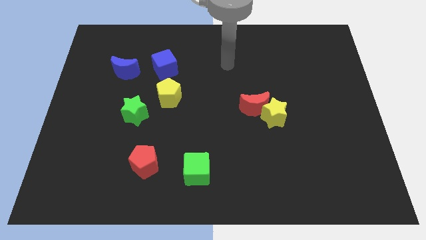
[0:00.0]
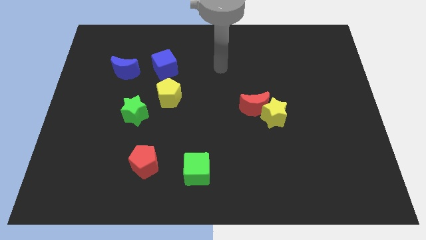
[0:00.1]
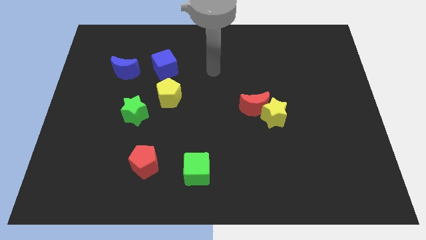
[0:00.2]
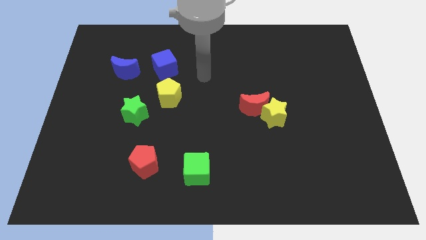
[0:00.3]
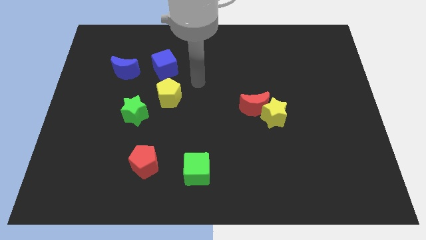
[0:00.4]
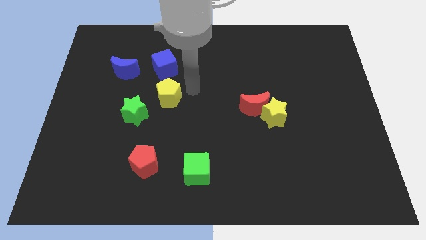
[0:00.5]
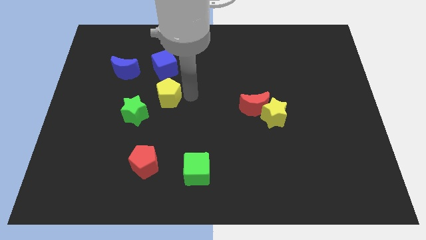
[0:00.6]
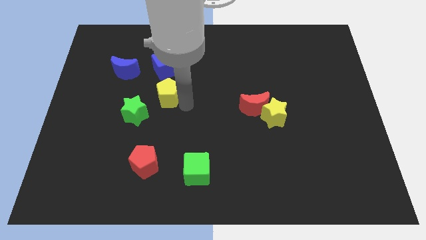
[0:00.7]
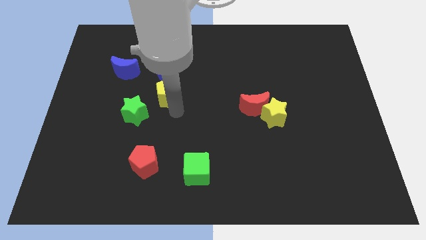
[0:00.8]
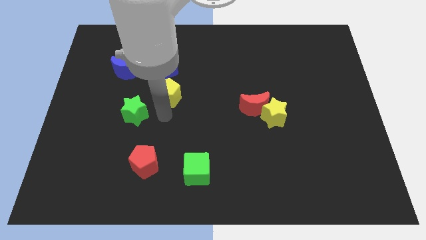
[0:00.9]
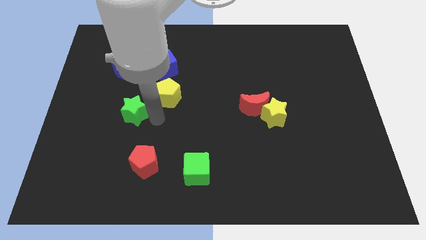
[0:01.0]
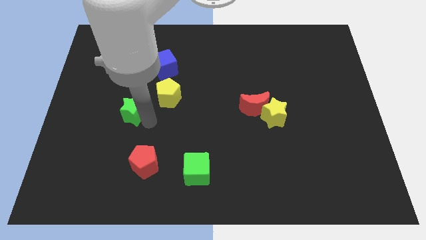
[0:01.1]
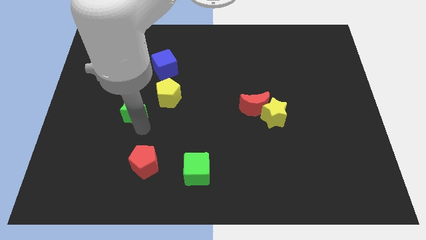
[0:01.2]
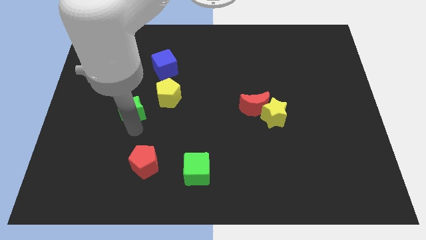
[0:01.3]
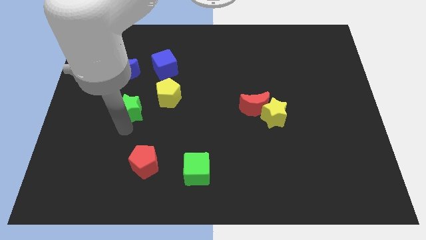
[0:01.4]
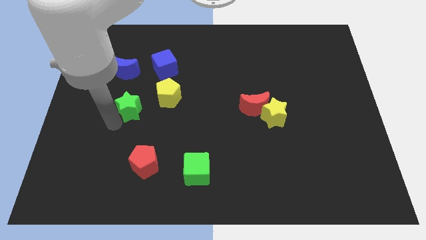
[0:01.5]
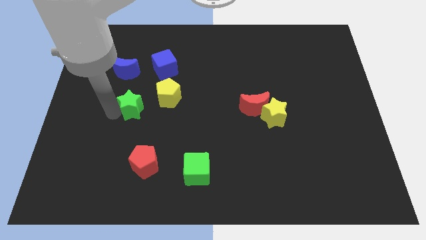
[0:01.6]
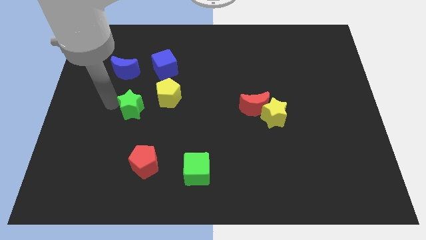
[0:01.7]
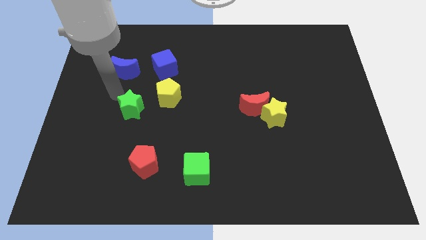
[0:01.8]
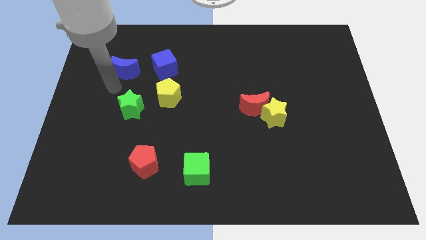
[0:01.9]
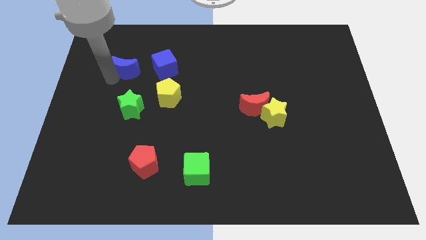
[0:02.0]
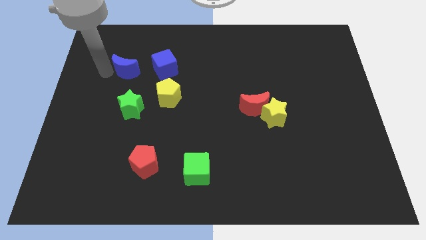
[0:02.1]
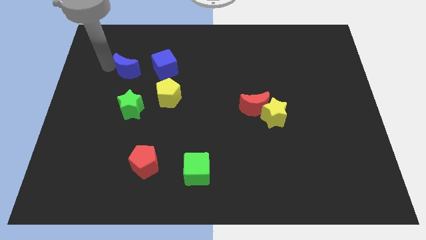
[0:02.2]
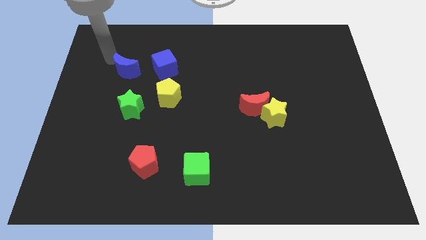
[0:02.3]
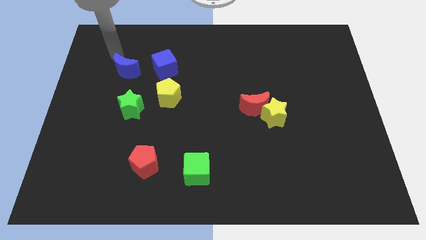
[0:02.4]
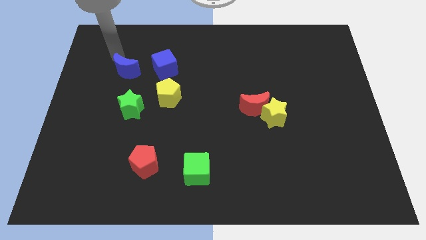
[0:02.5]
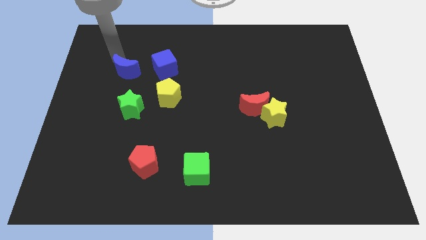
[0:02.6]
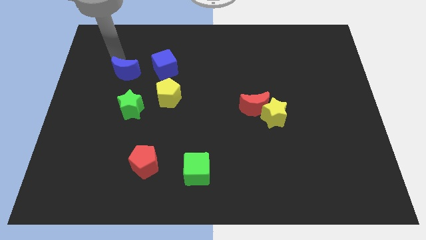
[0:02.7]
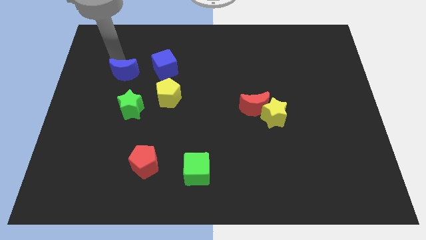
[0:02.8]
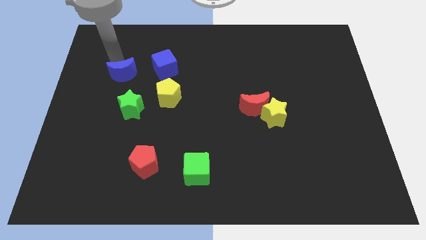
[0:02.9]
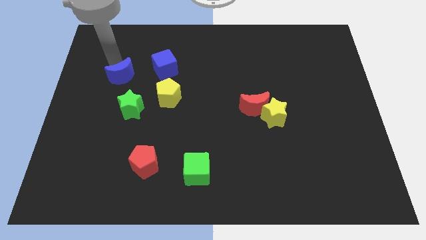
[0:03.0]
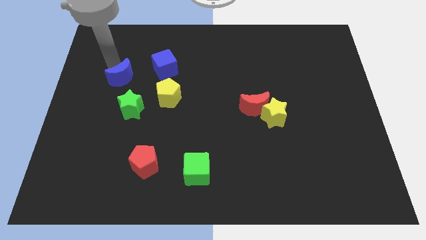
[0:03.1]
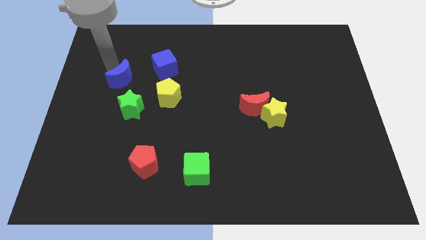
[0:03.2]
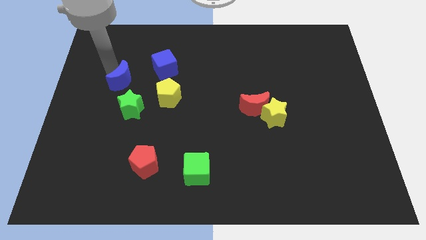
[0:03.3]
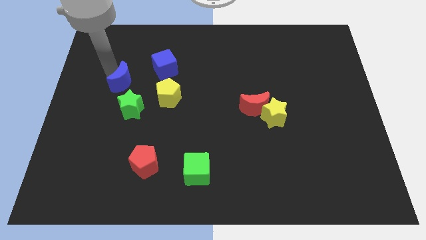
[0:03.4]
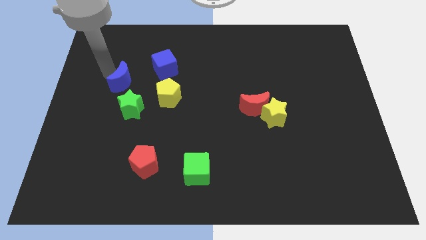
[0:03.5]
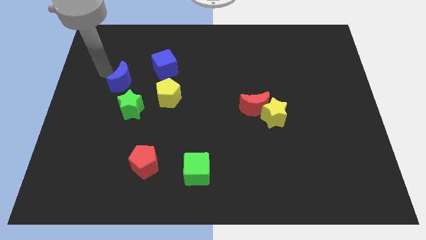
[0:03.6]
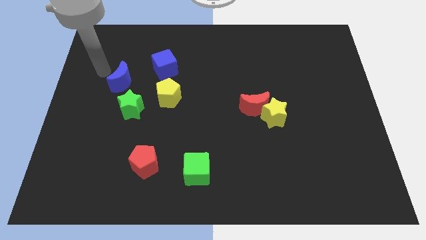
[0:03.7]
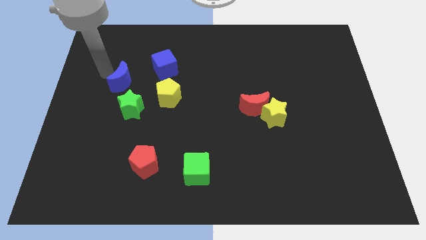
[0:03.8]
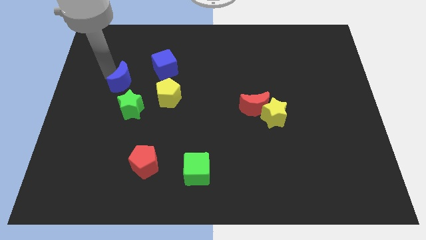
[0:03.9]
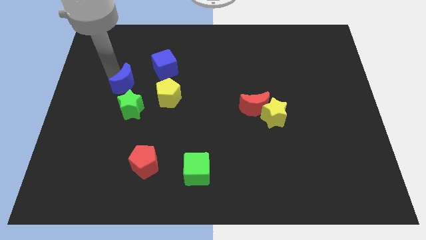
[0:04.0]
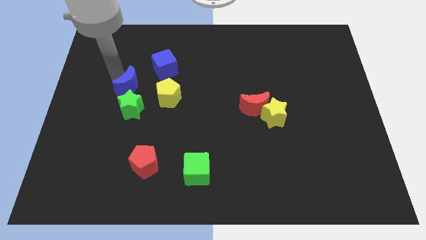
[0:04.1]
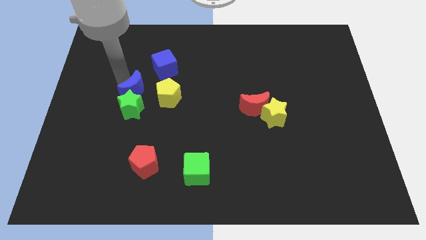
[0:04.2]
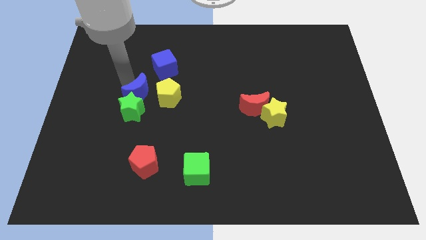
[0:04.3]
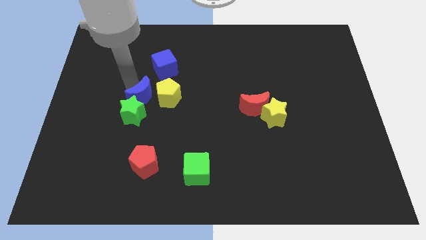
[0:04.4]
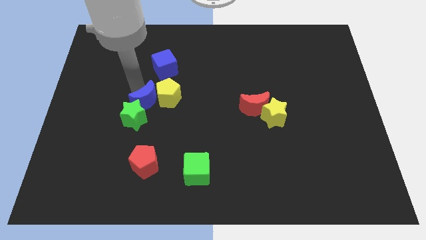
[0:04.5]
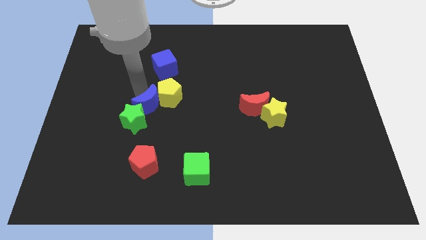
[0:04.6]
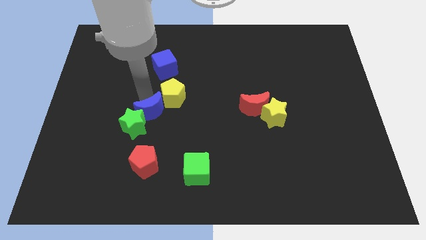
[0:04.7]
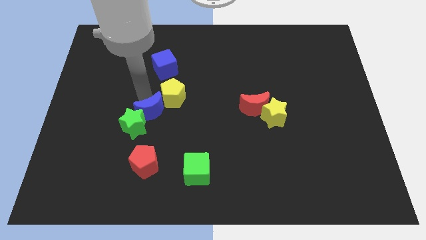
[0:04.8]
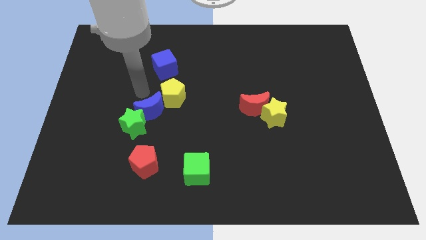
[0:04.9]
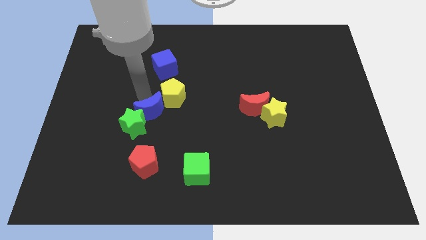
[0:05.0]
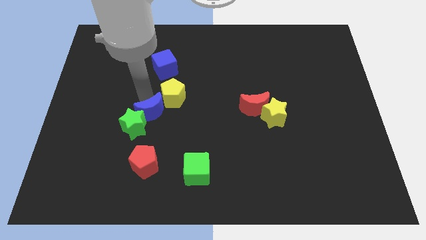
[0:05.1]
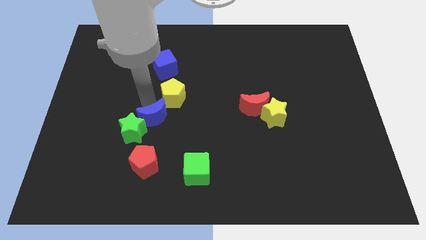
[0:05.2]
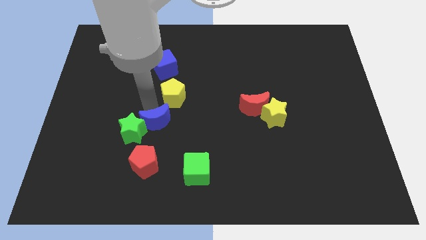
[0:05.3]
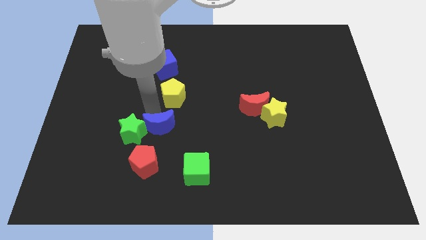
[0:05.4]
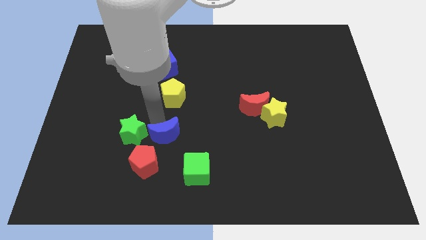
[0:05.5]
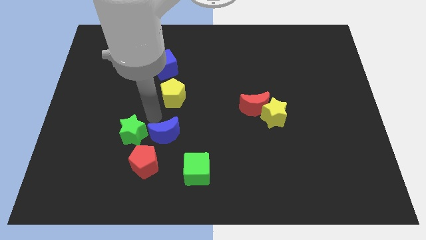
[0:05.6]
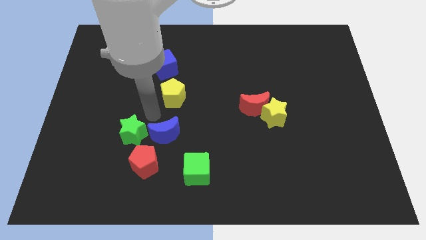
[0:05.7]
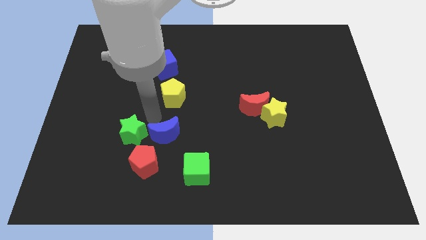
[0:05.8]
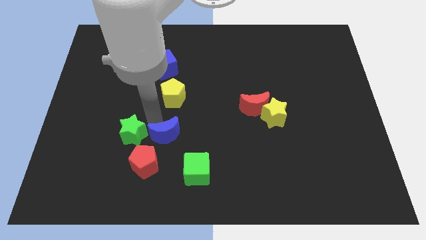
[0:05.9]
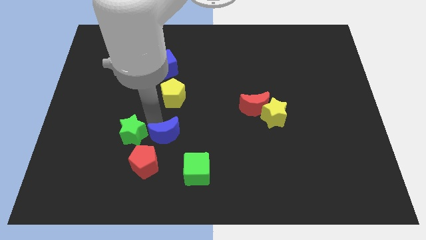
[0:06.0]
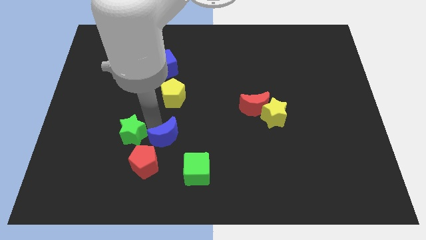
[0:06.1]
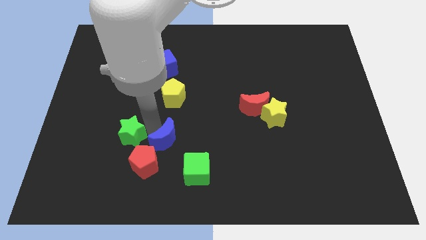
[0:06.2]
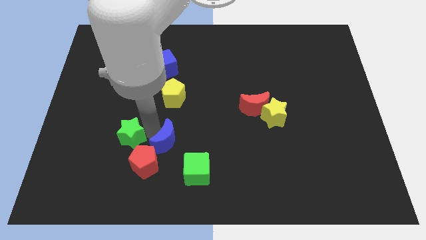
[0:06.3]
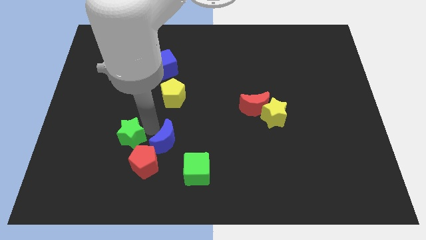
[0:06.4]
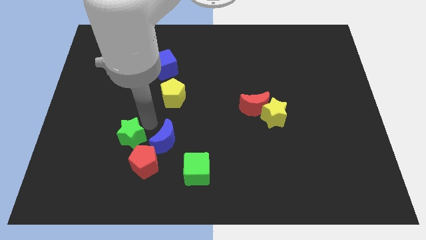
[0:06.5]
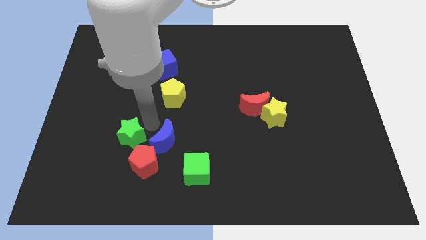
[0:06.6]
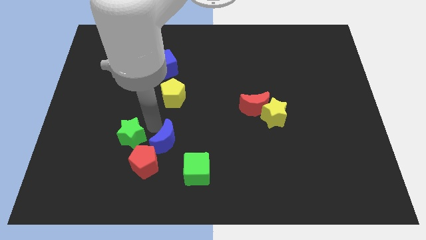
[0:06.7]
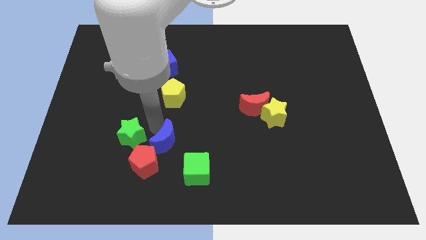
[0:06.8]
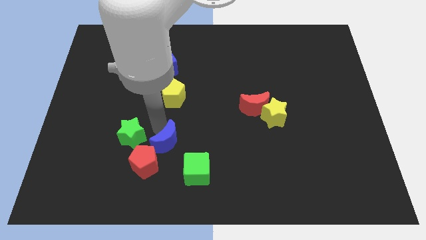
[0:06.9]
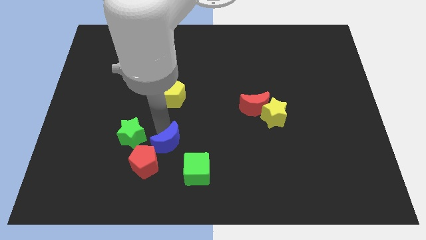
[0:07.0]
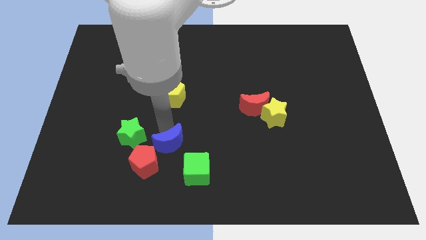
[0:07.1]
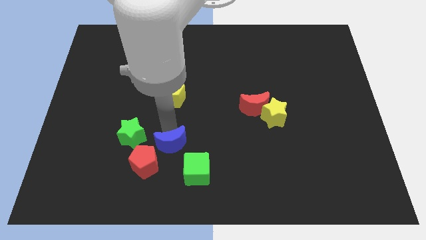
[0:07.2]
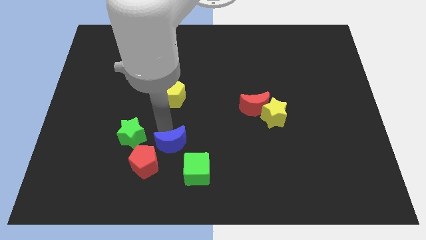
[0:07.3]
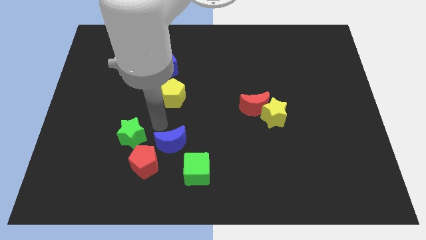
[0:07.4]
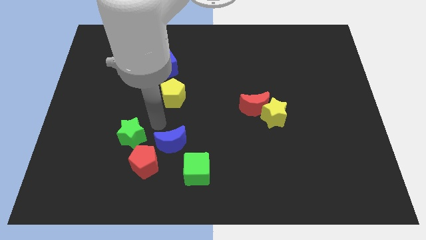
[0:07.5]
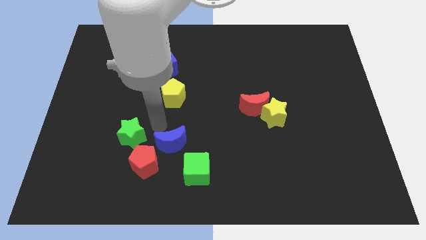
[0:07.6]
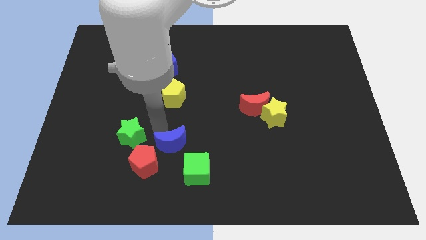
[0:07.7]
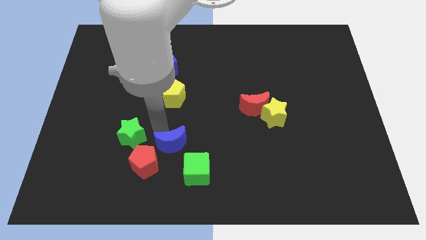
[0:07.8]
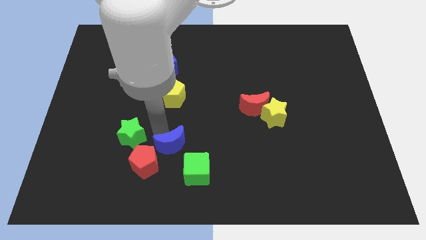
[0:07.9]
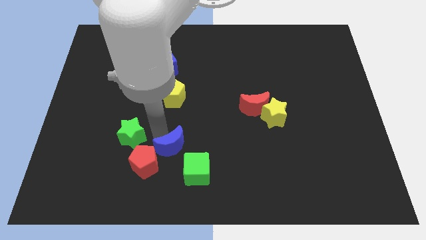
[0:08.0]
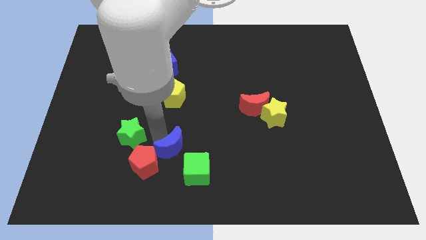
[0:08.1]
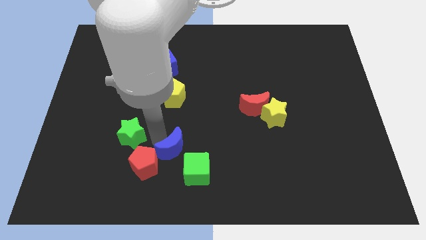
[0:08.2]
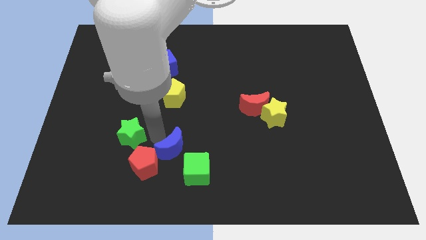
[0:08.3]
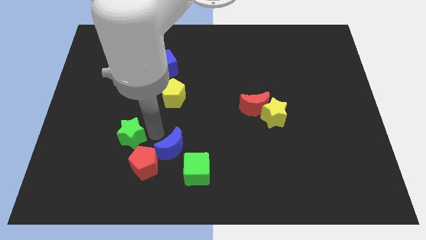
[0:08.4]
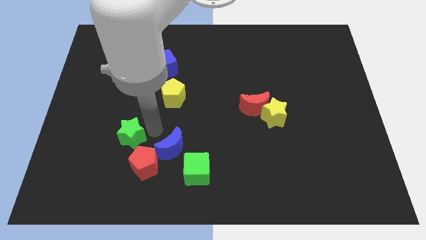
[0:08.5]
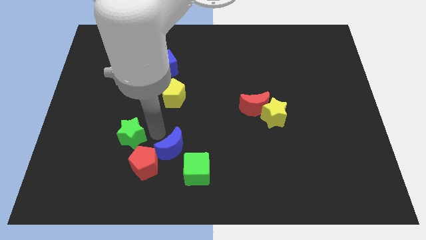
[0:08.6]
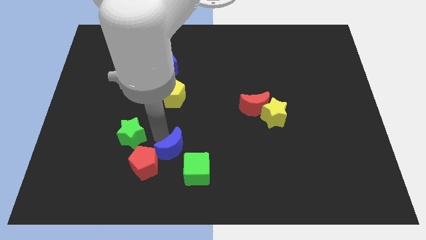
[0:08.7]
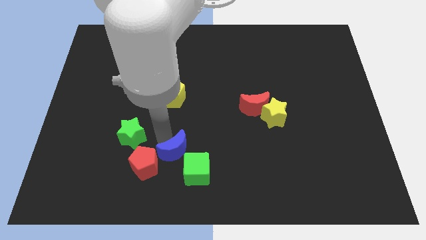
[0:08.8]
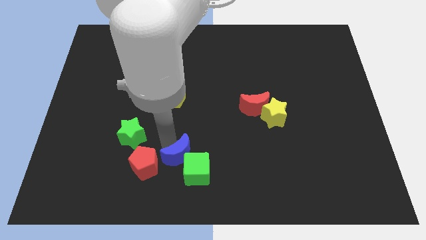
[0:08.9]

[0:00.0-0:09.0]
put the blue moon towards the green cube
